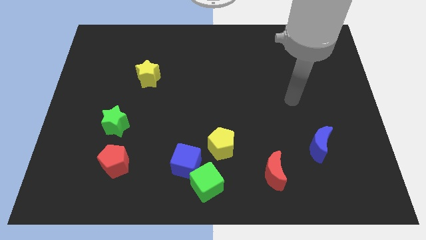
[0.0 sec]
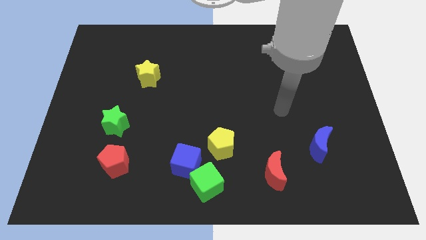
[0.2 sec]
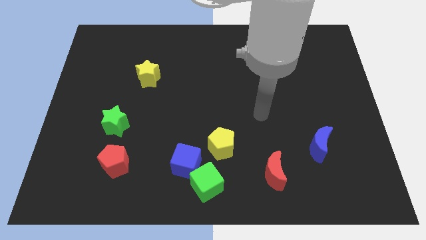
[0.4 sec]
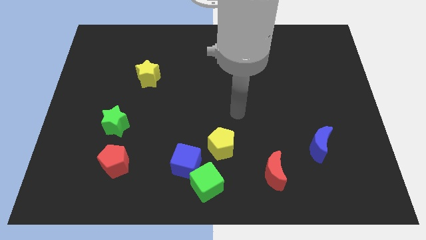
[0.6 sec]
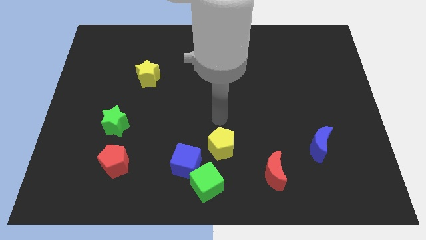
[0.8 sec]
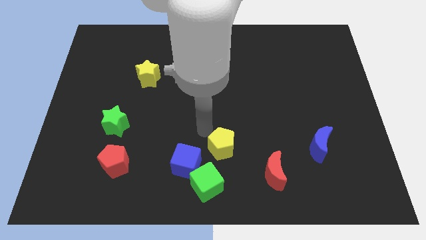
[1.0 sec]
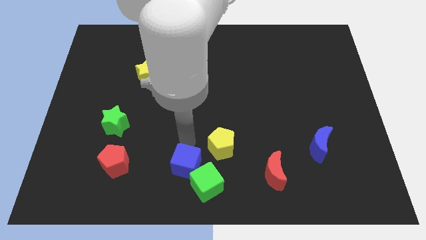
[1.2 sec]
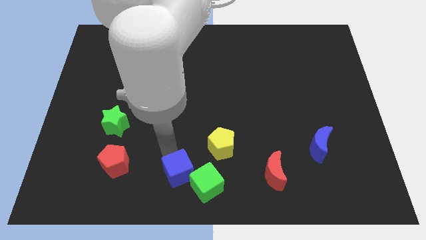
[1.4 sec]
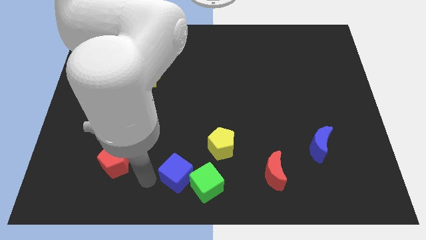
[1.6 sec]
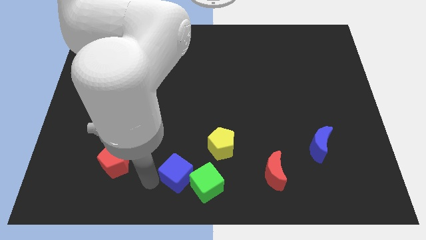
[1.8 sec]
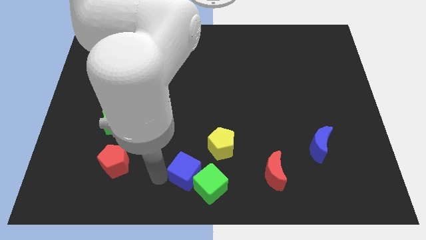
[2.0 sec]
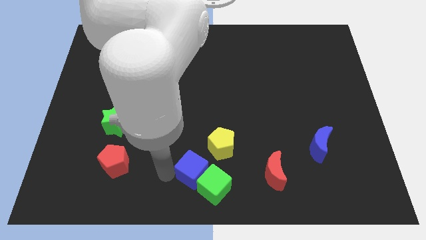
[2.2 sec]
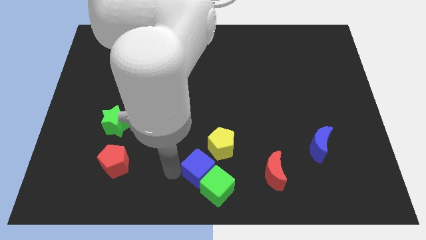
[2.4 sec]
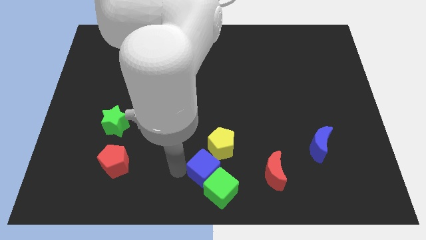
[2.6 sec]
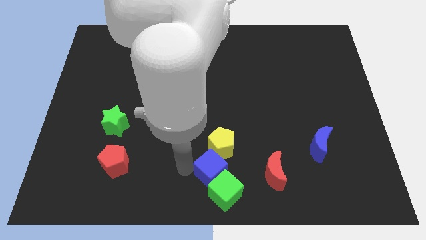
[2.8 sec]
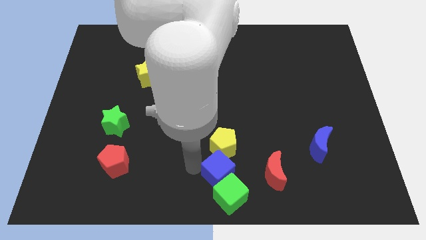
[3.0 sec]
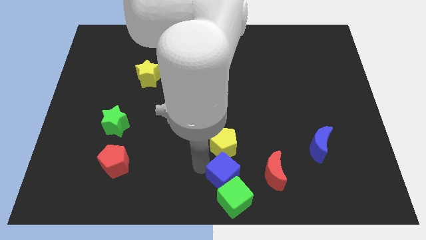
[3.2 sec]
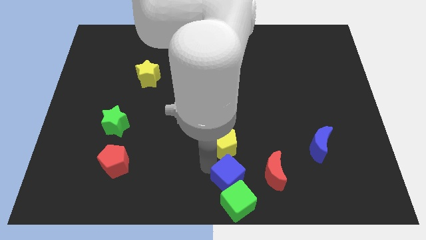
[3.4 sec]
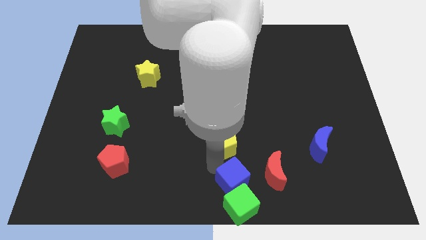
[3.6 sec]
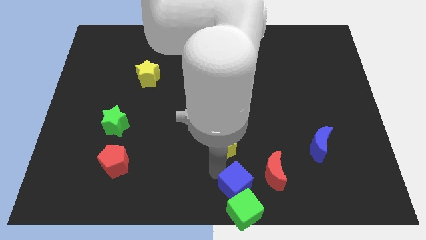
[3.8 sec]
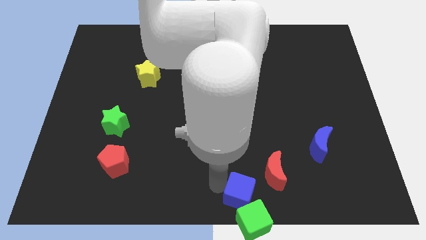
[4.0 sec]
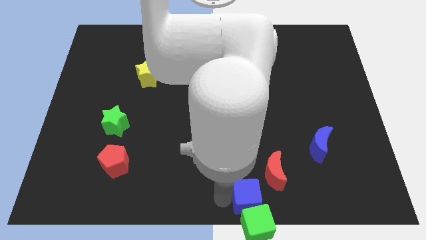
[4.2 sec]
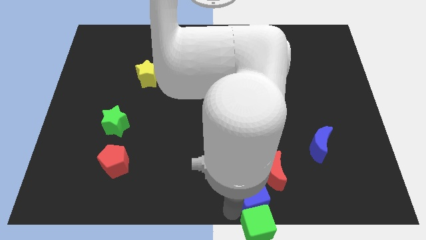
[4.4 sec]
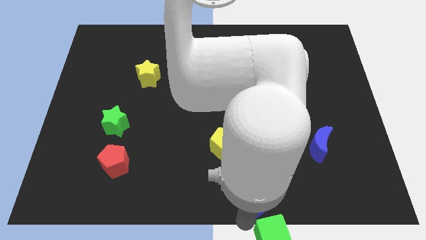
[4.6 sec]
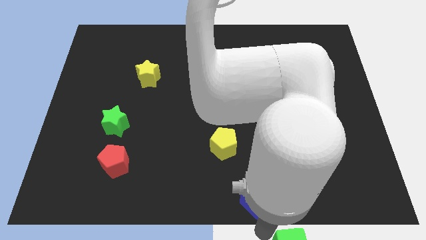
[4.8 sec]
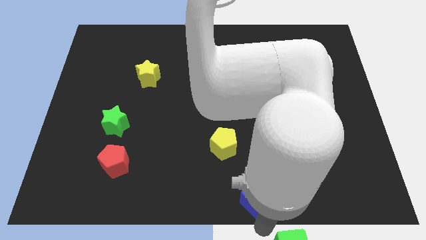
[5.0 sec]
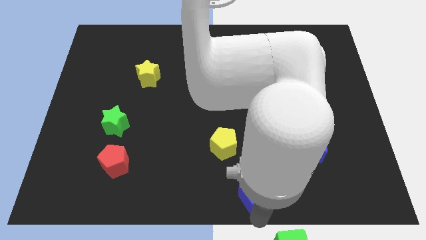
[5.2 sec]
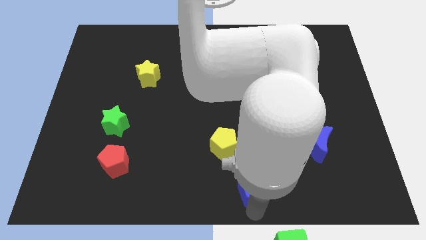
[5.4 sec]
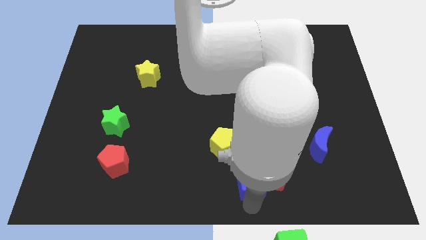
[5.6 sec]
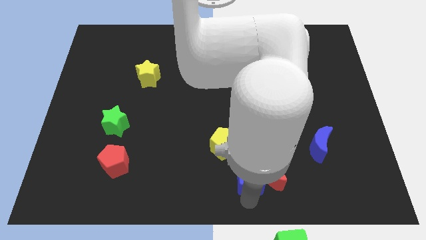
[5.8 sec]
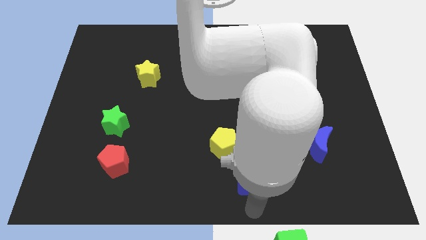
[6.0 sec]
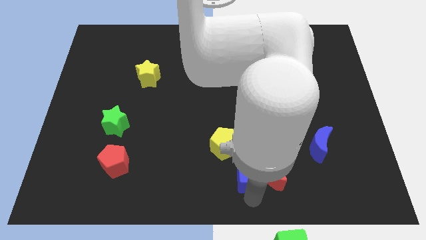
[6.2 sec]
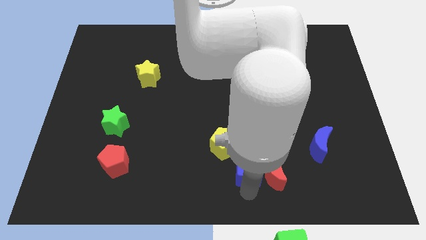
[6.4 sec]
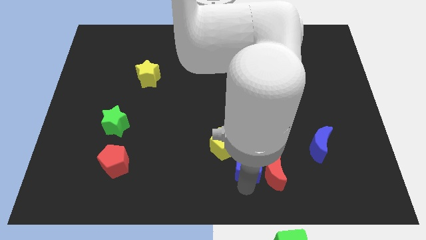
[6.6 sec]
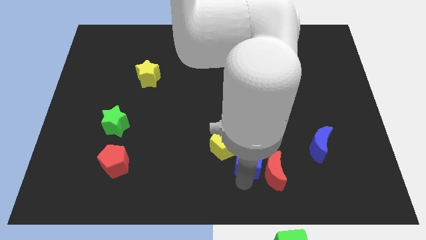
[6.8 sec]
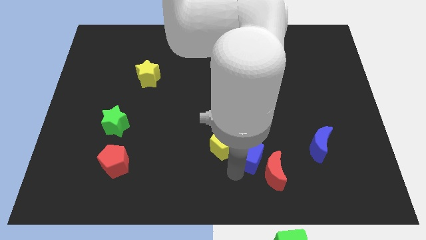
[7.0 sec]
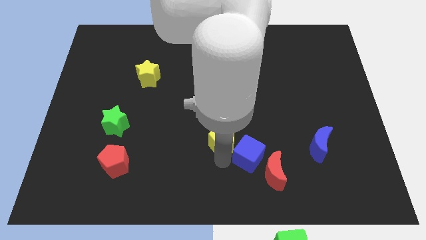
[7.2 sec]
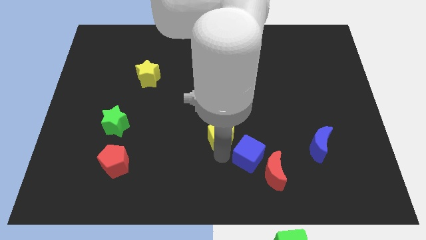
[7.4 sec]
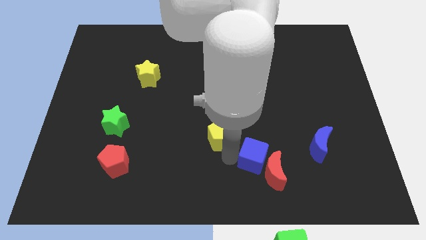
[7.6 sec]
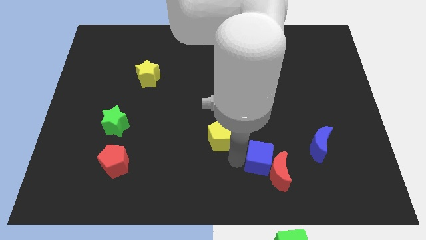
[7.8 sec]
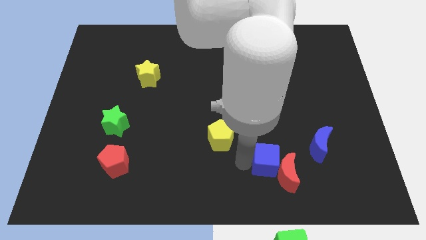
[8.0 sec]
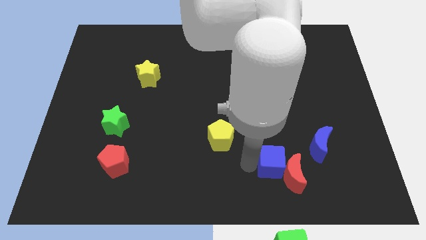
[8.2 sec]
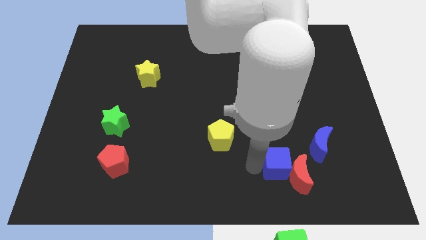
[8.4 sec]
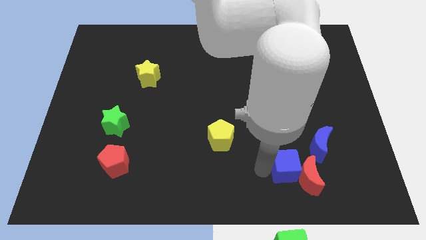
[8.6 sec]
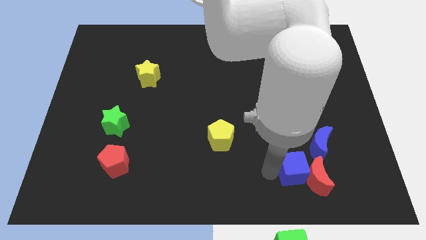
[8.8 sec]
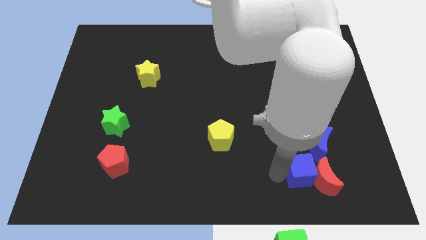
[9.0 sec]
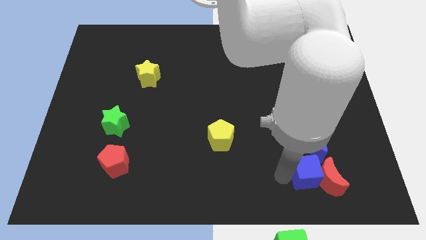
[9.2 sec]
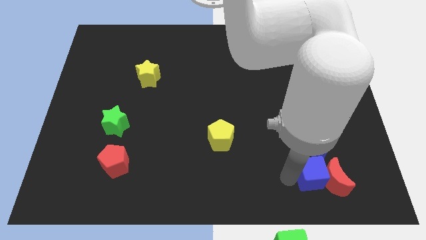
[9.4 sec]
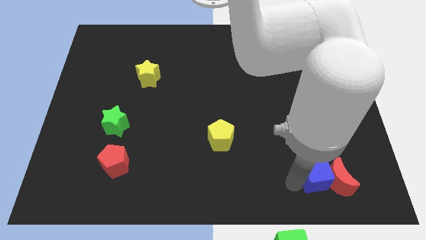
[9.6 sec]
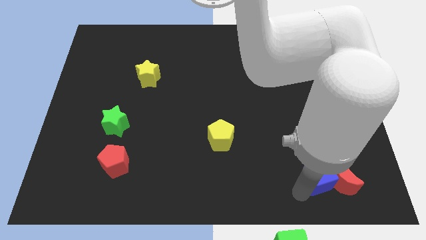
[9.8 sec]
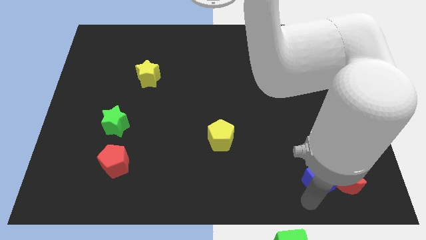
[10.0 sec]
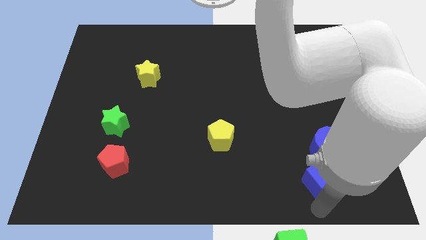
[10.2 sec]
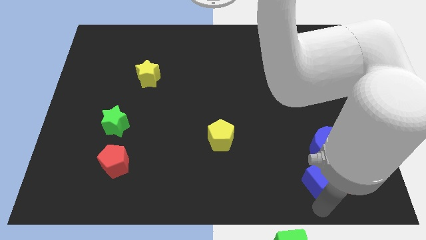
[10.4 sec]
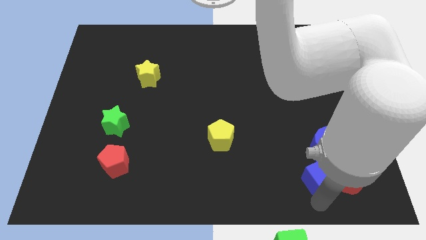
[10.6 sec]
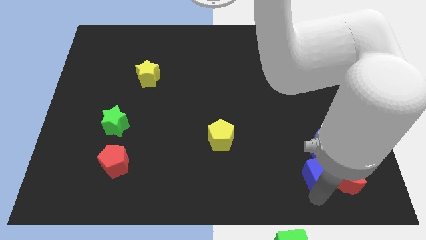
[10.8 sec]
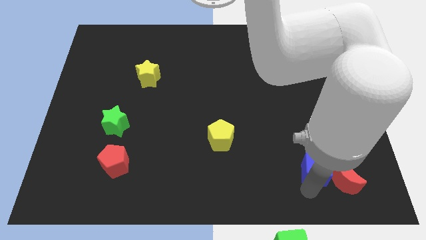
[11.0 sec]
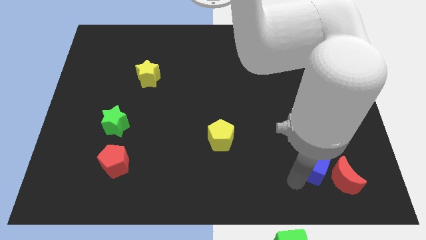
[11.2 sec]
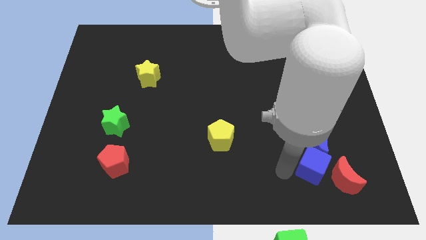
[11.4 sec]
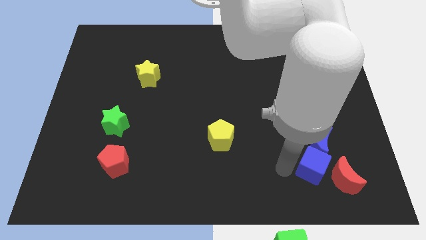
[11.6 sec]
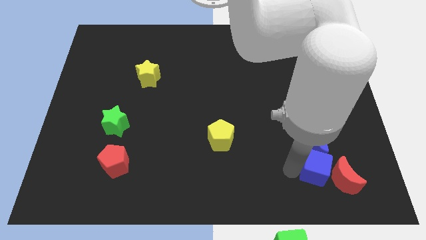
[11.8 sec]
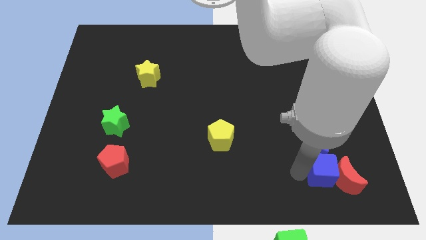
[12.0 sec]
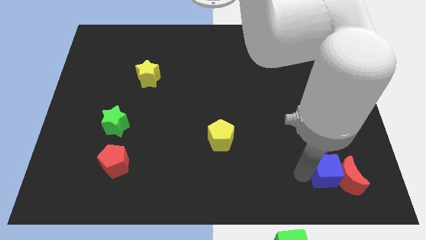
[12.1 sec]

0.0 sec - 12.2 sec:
slide the blue cube to the bottom right side of the blue moon

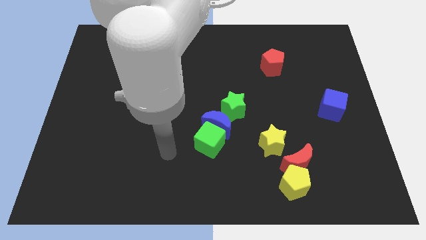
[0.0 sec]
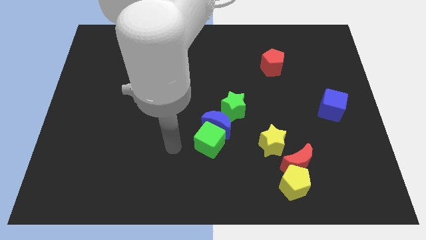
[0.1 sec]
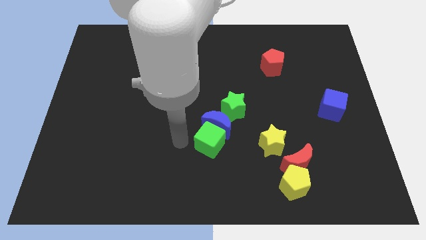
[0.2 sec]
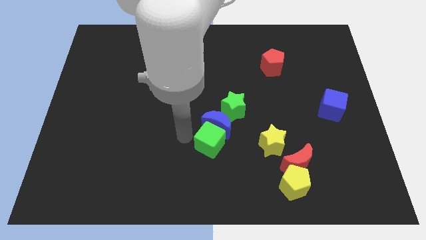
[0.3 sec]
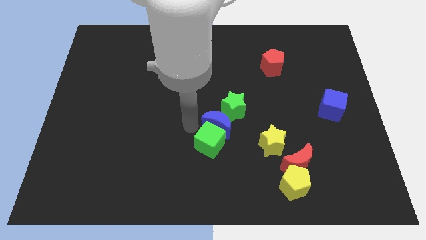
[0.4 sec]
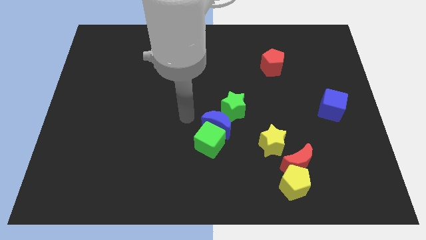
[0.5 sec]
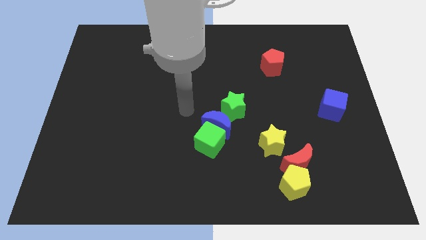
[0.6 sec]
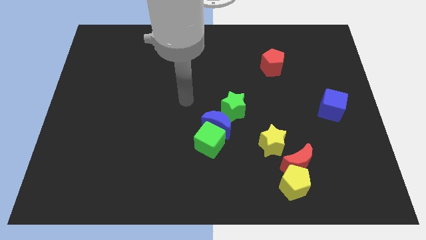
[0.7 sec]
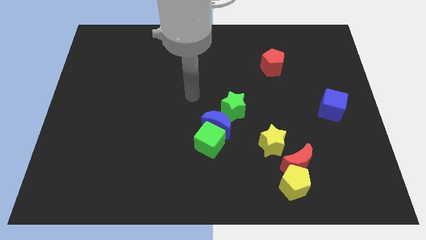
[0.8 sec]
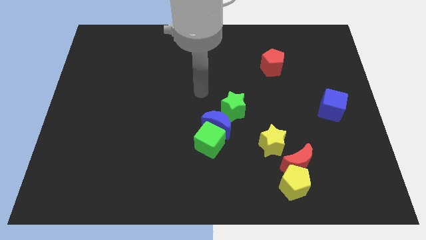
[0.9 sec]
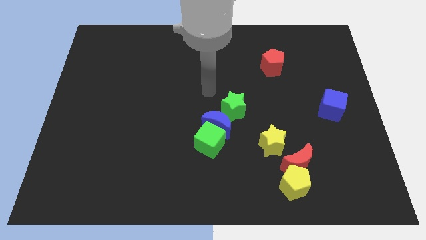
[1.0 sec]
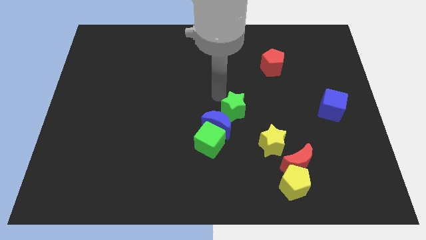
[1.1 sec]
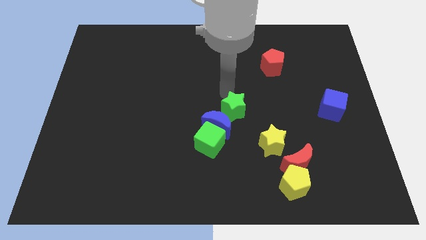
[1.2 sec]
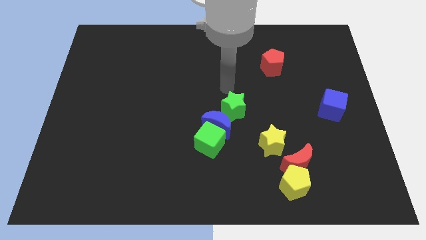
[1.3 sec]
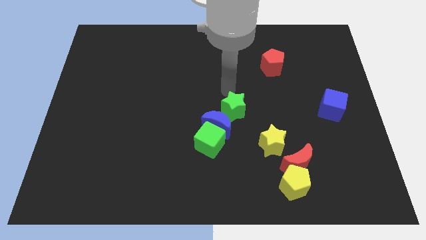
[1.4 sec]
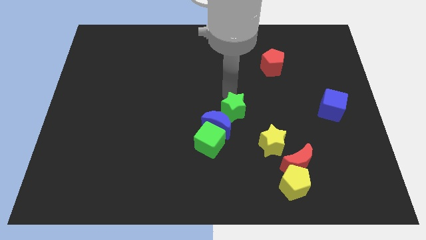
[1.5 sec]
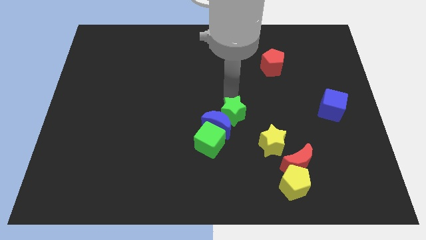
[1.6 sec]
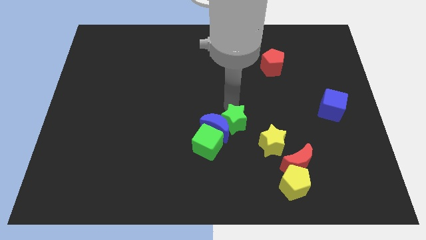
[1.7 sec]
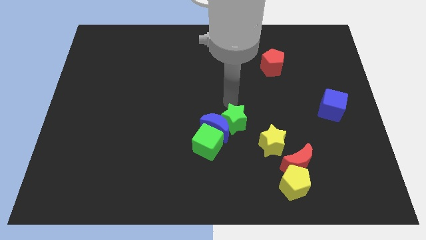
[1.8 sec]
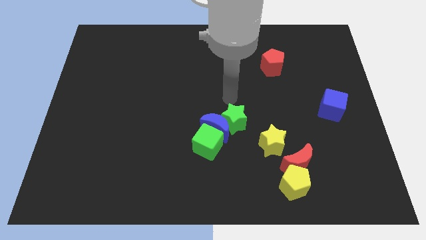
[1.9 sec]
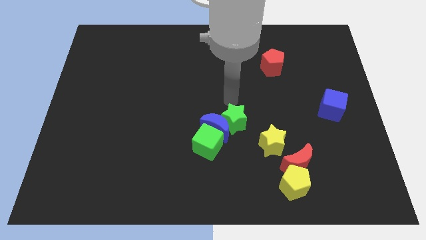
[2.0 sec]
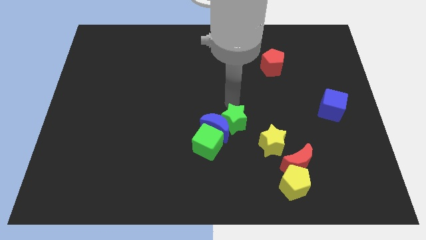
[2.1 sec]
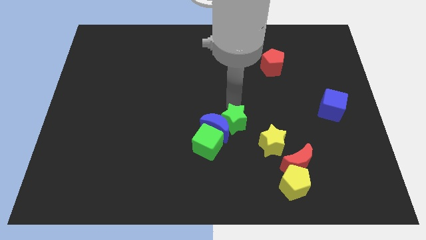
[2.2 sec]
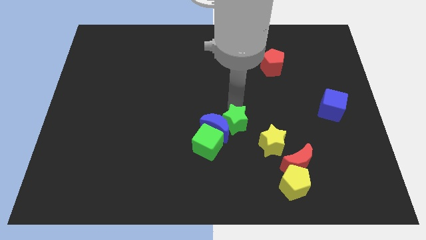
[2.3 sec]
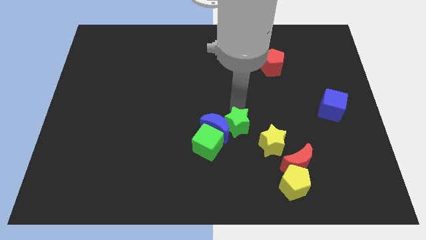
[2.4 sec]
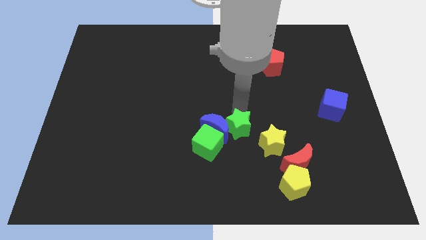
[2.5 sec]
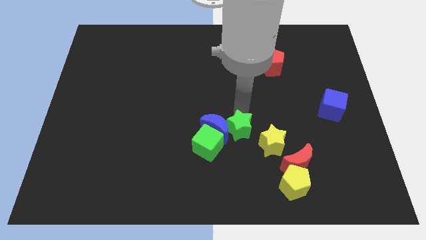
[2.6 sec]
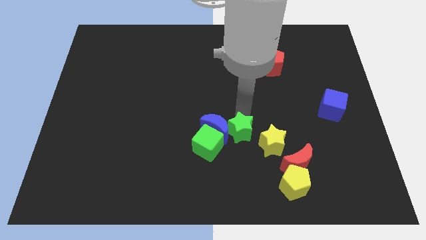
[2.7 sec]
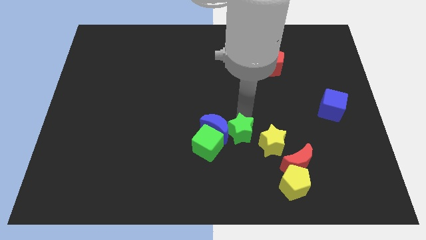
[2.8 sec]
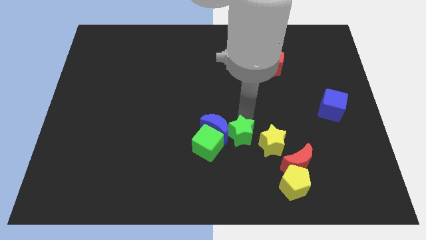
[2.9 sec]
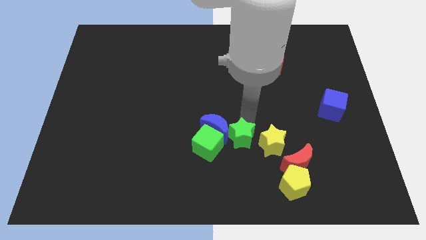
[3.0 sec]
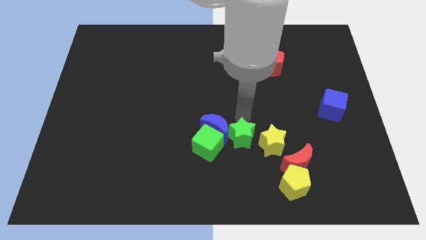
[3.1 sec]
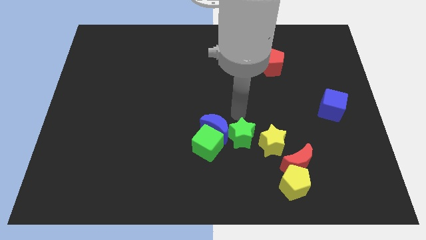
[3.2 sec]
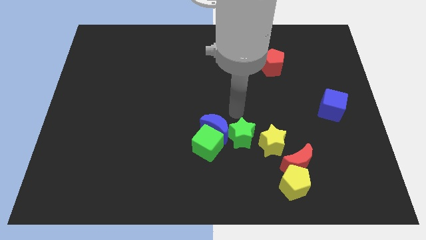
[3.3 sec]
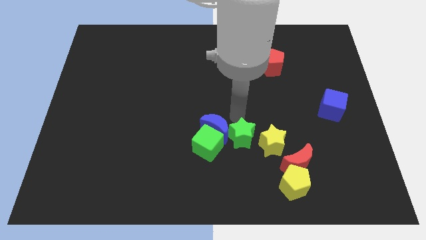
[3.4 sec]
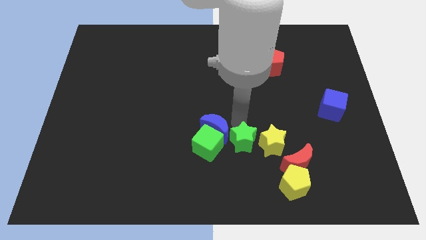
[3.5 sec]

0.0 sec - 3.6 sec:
move the green star to the bottom left side of the yellow star